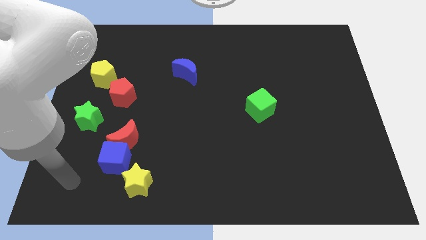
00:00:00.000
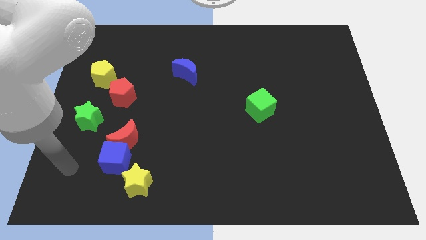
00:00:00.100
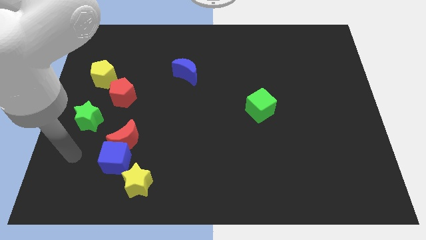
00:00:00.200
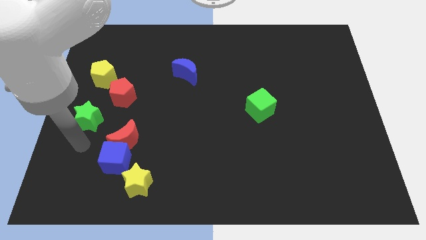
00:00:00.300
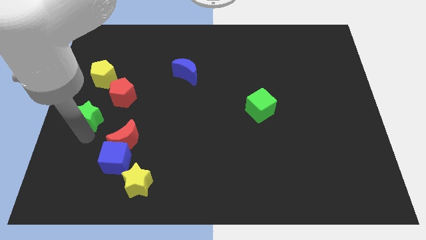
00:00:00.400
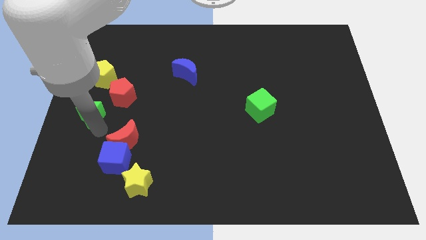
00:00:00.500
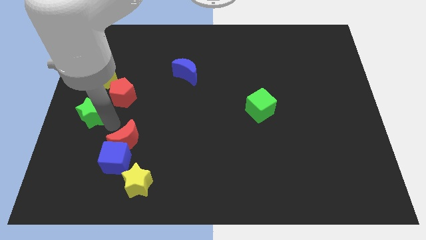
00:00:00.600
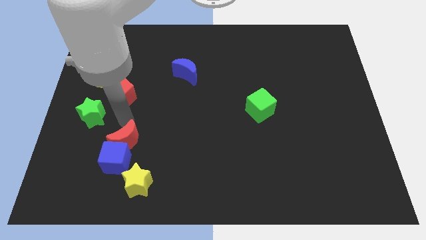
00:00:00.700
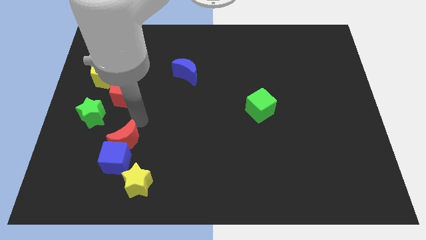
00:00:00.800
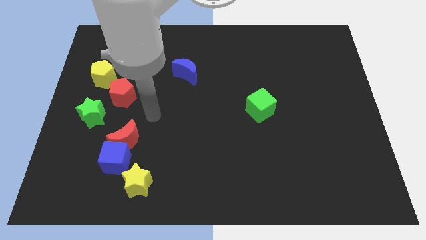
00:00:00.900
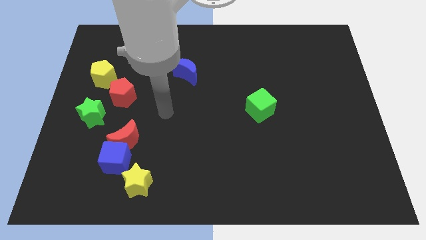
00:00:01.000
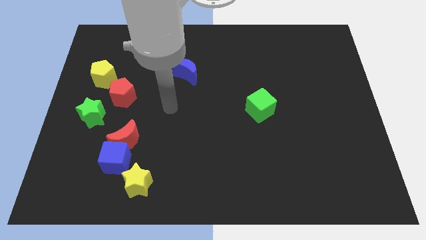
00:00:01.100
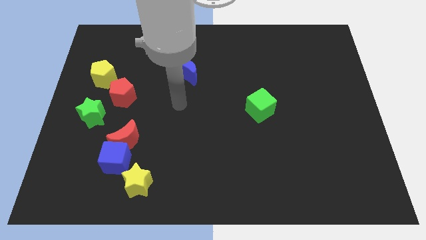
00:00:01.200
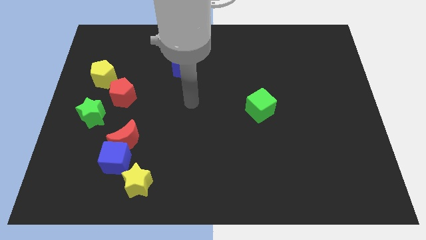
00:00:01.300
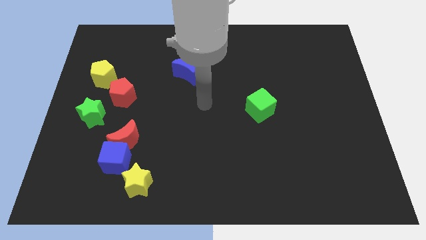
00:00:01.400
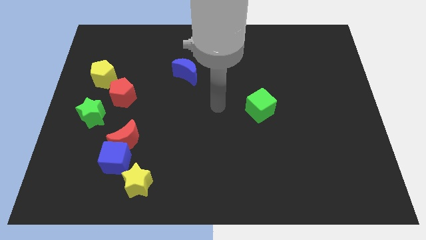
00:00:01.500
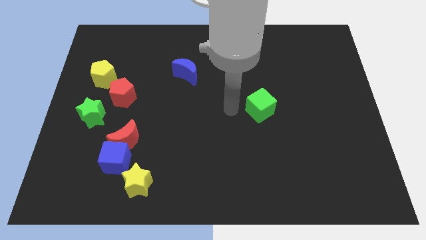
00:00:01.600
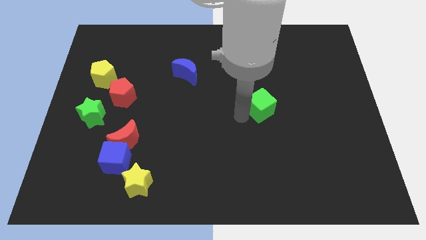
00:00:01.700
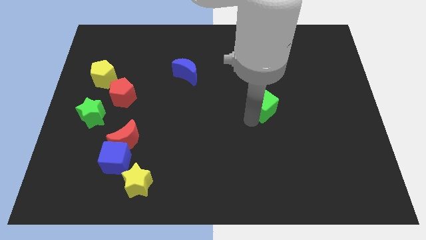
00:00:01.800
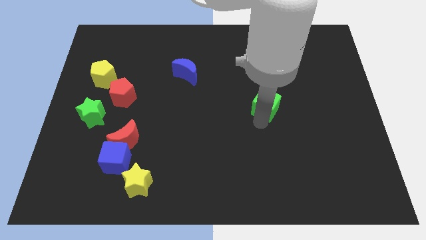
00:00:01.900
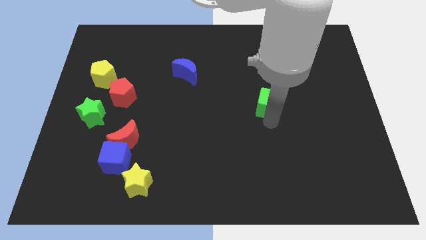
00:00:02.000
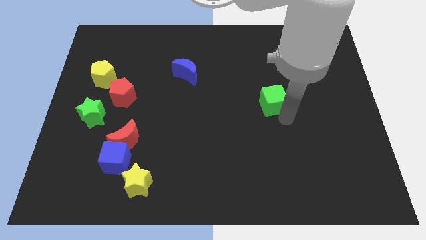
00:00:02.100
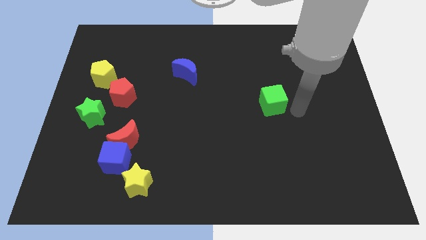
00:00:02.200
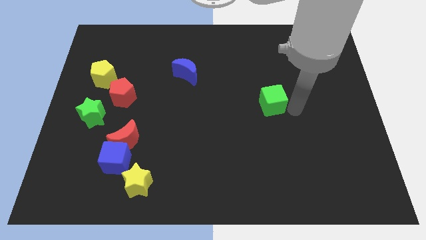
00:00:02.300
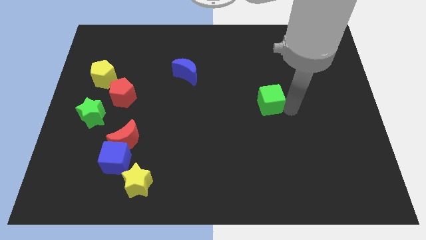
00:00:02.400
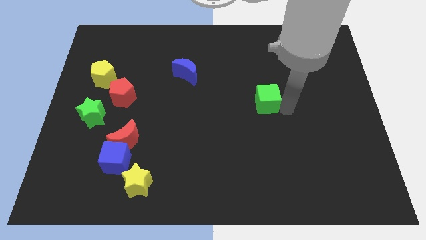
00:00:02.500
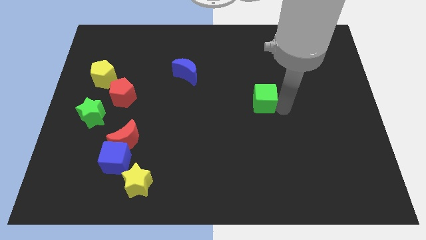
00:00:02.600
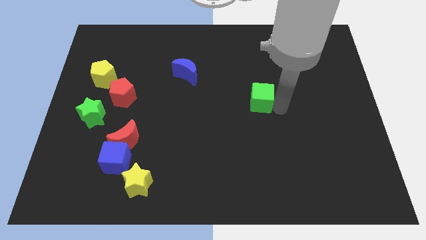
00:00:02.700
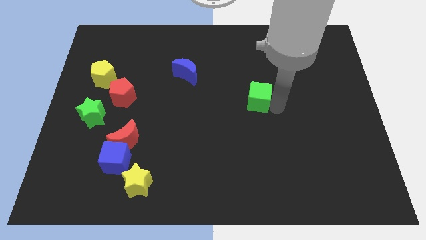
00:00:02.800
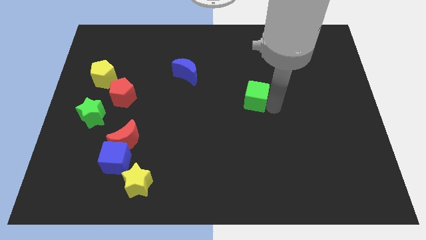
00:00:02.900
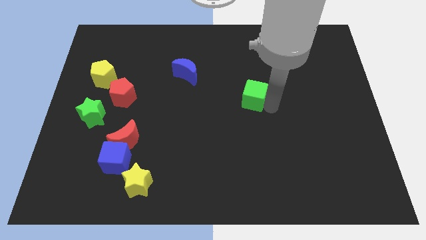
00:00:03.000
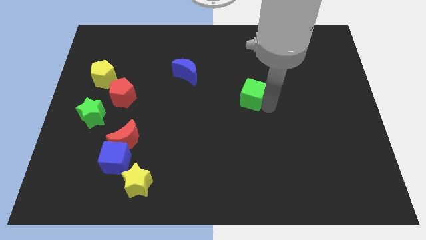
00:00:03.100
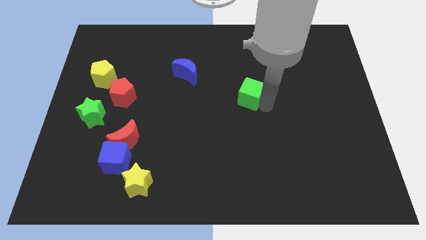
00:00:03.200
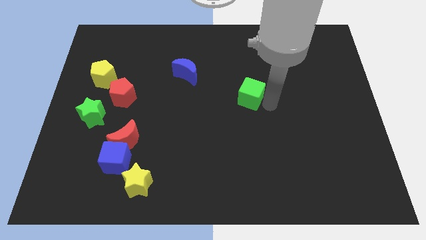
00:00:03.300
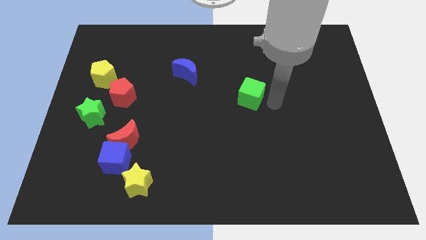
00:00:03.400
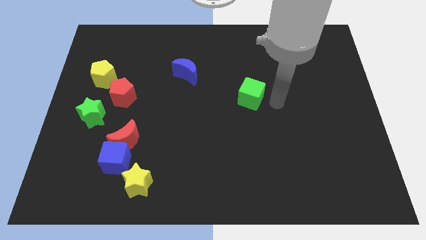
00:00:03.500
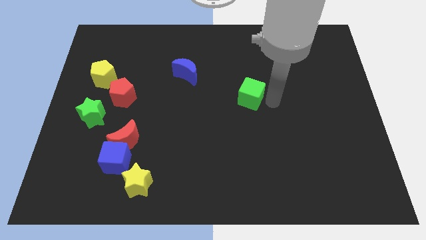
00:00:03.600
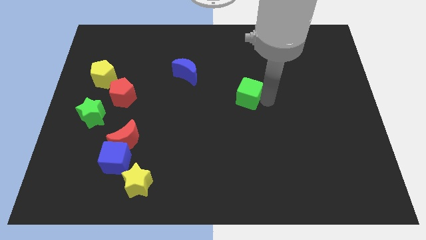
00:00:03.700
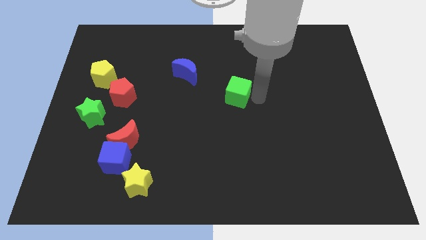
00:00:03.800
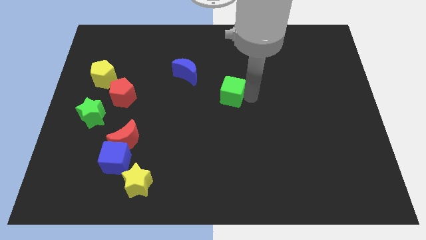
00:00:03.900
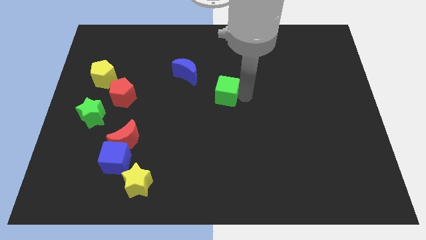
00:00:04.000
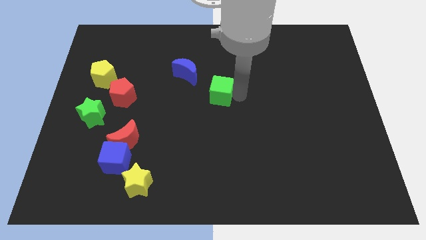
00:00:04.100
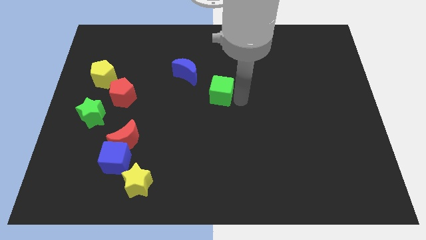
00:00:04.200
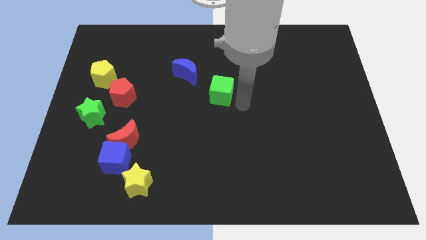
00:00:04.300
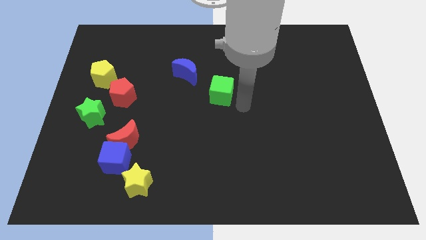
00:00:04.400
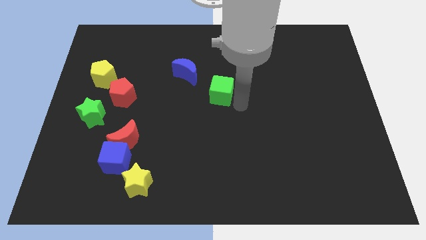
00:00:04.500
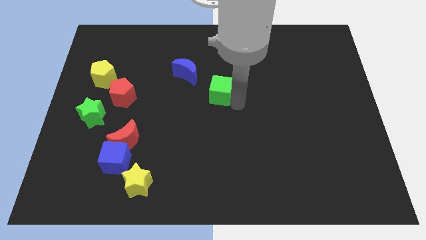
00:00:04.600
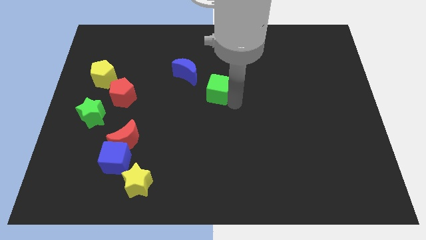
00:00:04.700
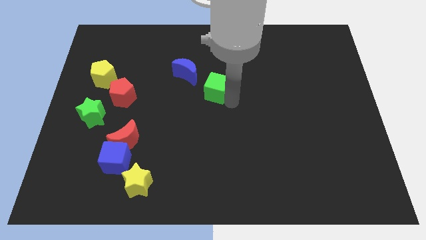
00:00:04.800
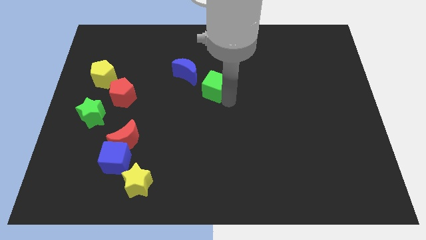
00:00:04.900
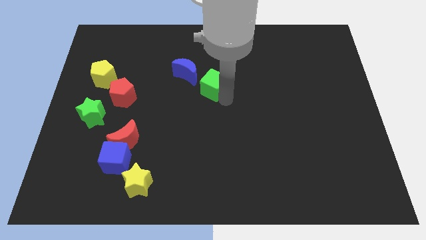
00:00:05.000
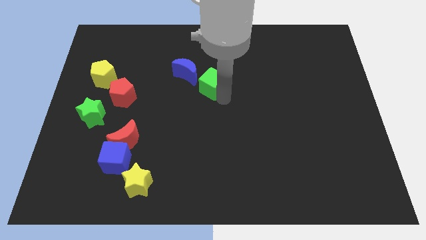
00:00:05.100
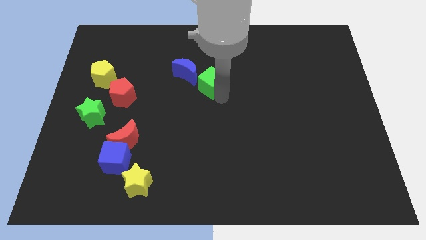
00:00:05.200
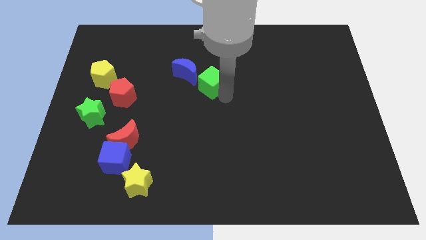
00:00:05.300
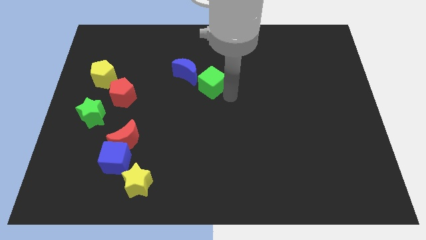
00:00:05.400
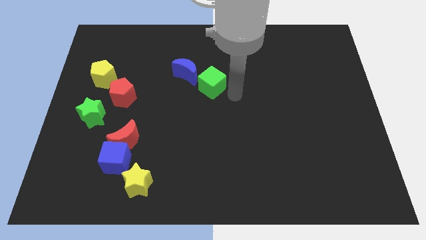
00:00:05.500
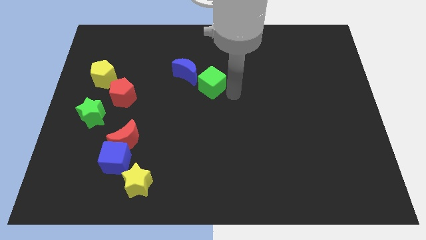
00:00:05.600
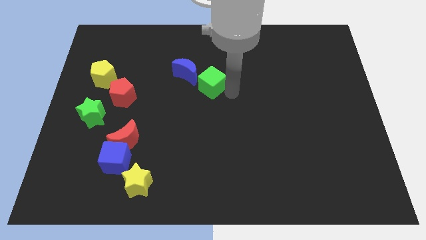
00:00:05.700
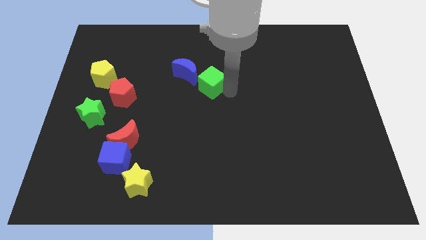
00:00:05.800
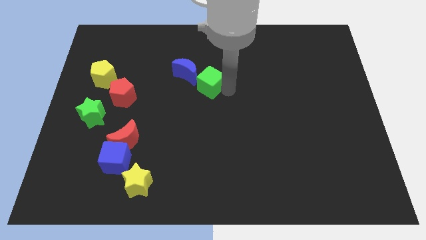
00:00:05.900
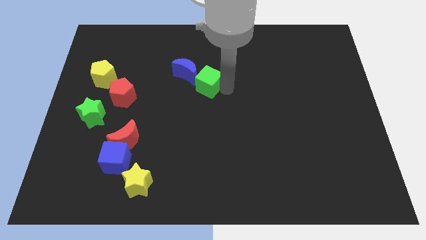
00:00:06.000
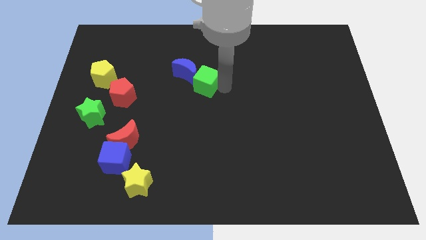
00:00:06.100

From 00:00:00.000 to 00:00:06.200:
move the green cube towards the blue moon

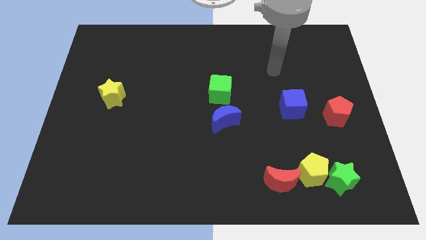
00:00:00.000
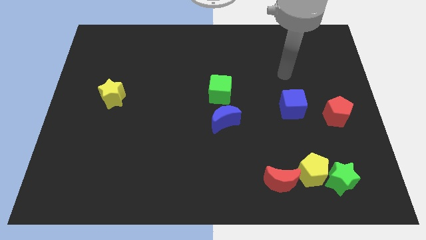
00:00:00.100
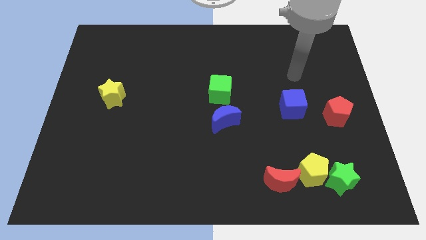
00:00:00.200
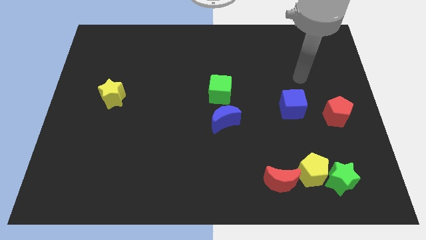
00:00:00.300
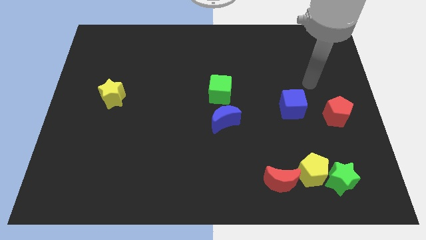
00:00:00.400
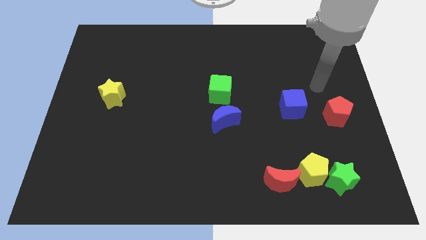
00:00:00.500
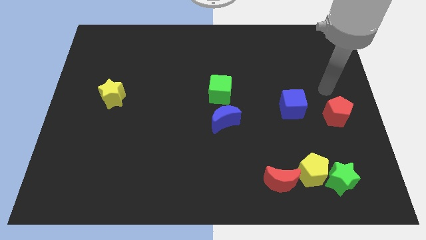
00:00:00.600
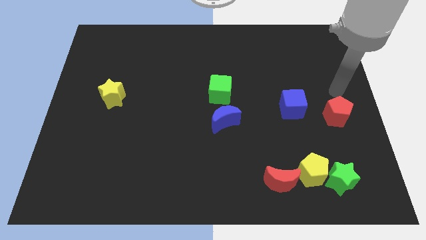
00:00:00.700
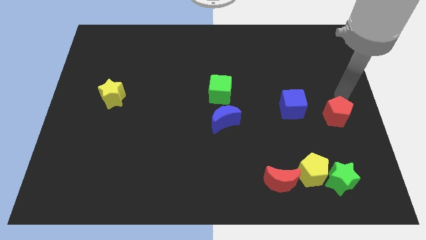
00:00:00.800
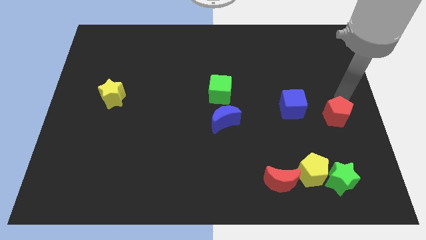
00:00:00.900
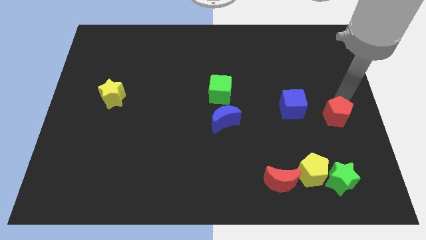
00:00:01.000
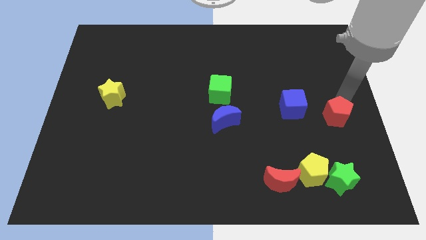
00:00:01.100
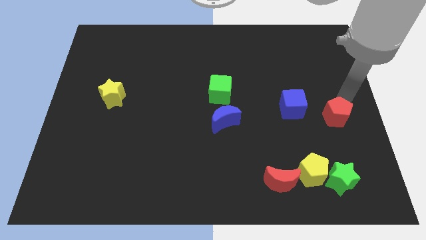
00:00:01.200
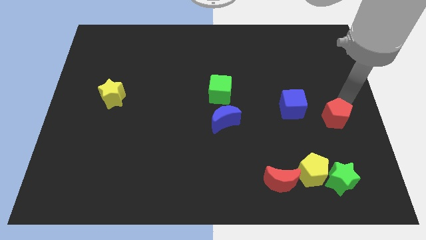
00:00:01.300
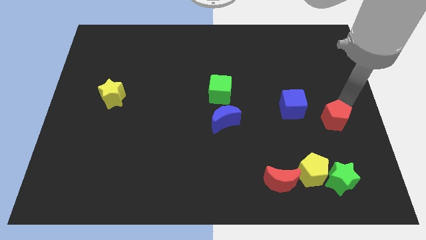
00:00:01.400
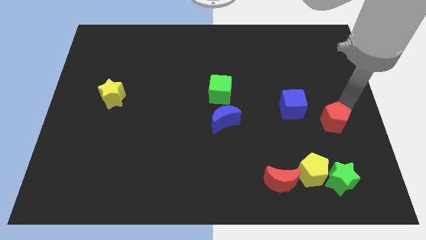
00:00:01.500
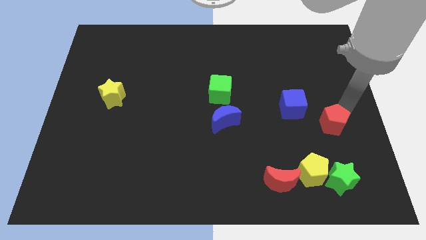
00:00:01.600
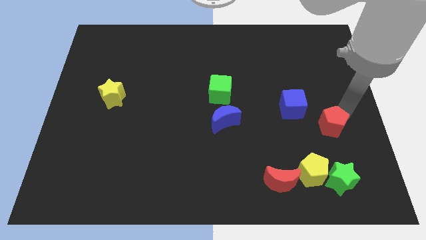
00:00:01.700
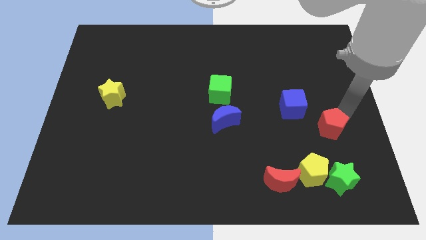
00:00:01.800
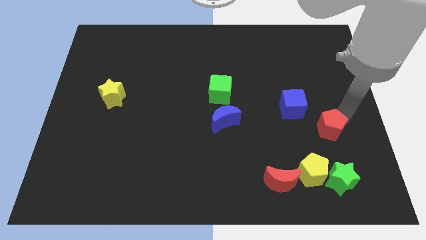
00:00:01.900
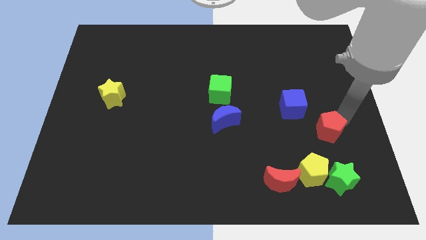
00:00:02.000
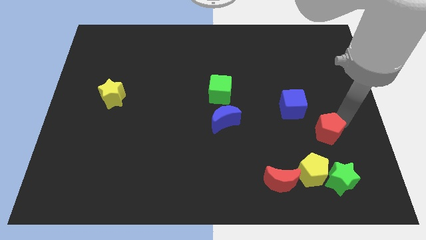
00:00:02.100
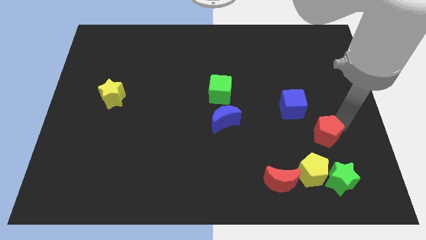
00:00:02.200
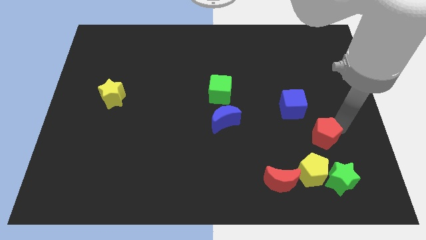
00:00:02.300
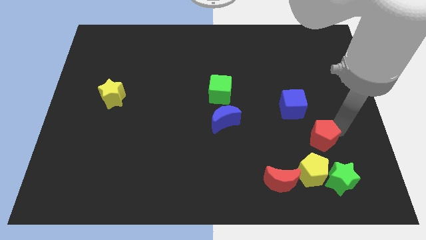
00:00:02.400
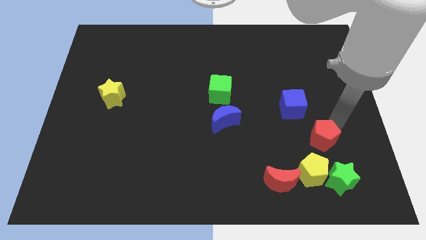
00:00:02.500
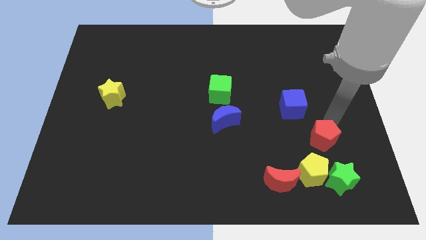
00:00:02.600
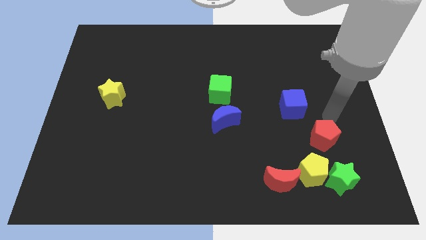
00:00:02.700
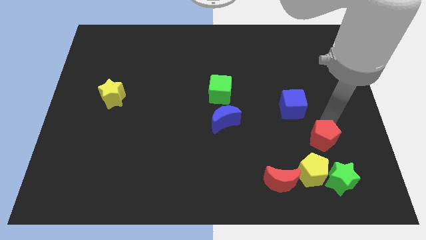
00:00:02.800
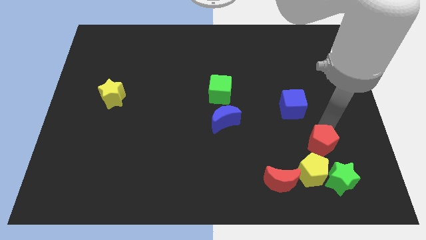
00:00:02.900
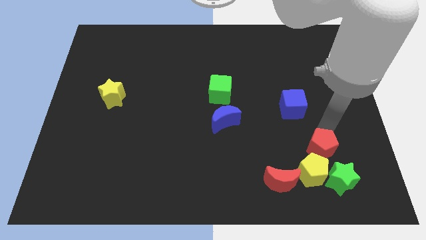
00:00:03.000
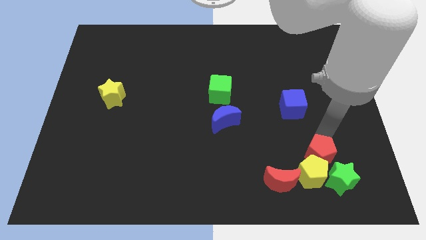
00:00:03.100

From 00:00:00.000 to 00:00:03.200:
put the red pentagon next to the yellow pentagon
